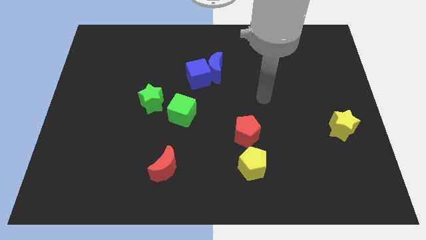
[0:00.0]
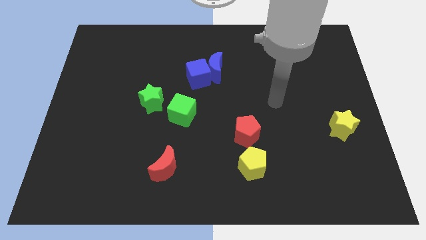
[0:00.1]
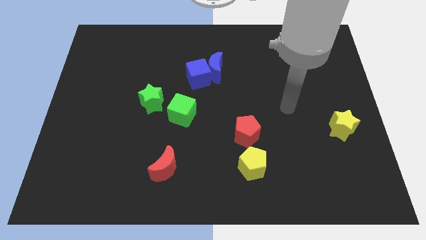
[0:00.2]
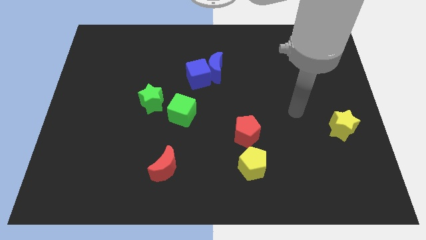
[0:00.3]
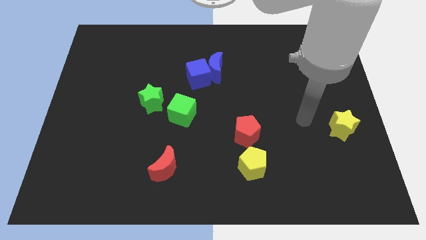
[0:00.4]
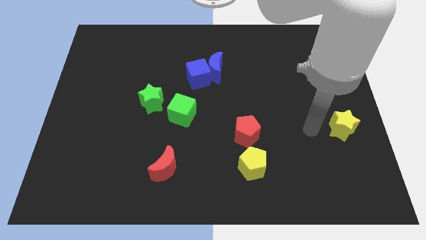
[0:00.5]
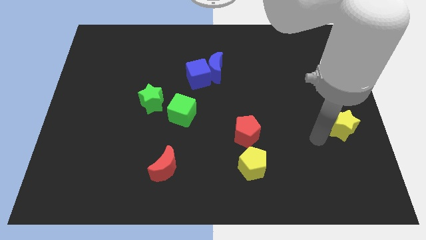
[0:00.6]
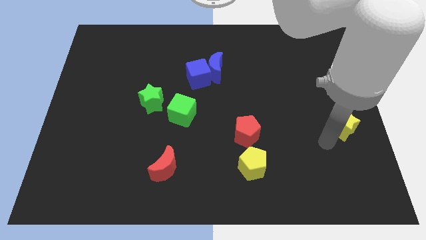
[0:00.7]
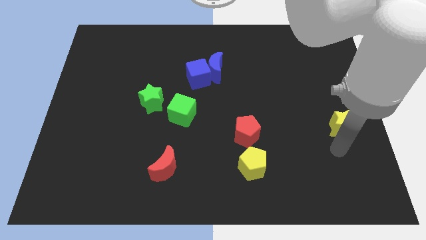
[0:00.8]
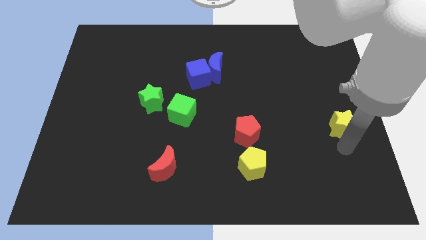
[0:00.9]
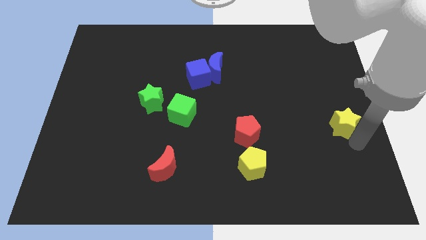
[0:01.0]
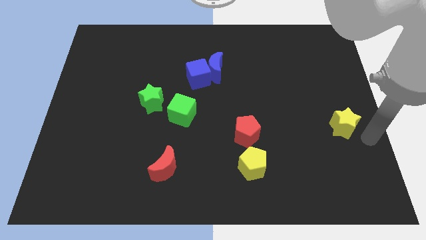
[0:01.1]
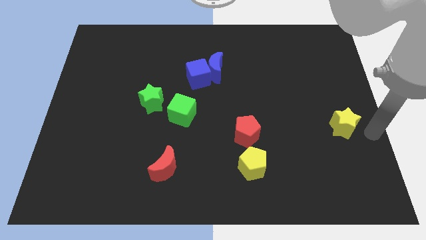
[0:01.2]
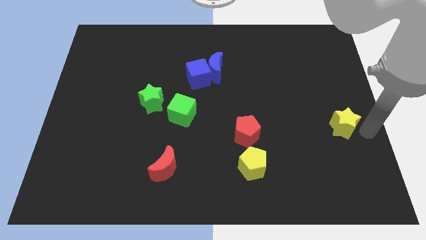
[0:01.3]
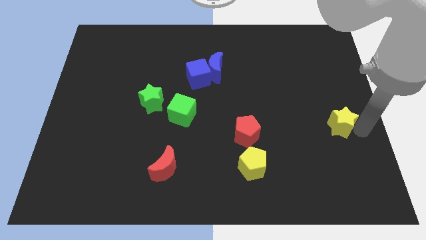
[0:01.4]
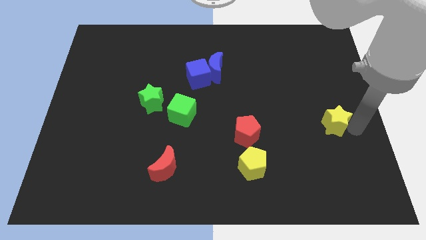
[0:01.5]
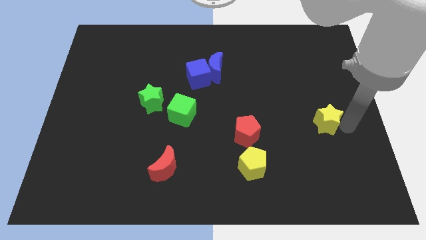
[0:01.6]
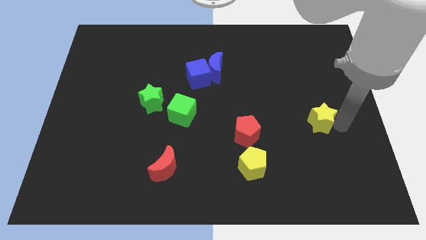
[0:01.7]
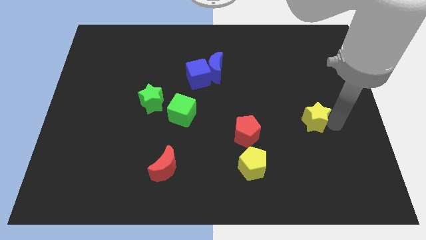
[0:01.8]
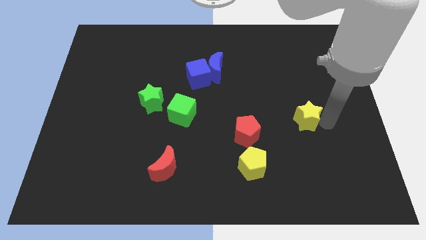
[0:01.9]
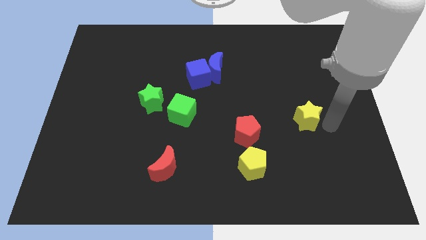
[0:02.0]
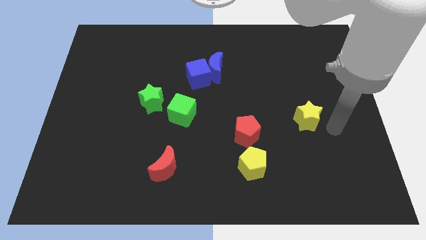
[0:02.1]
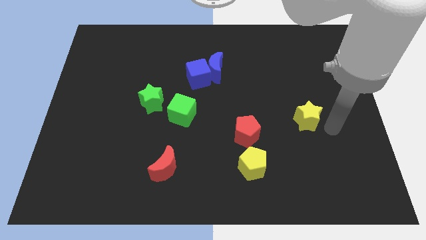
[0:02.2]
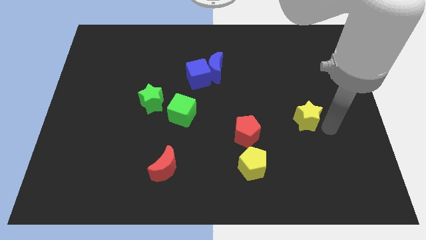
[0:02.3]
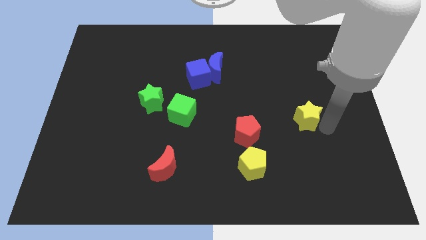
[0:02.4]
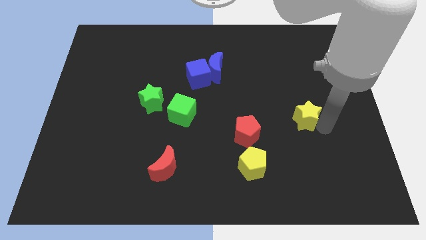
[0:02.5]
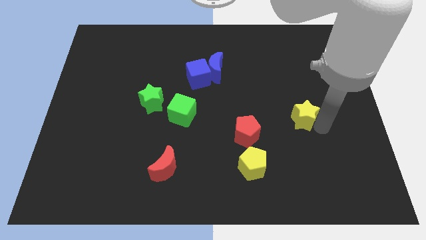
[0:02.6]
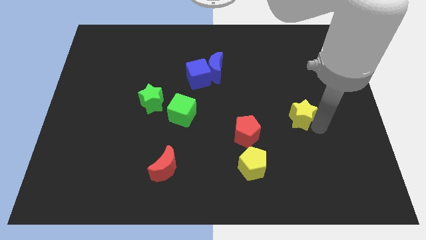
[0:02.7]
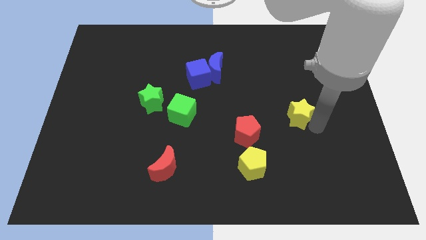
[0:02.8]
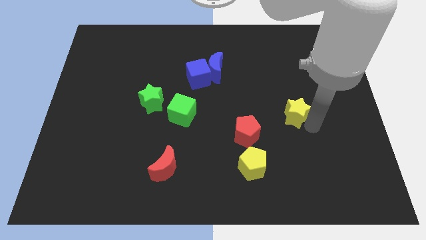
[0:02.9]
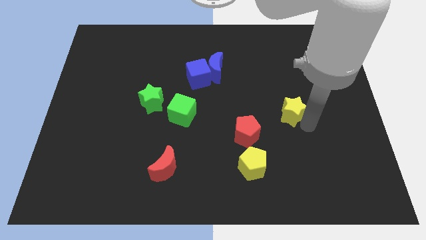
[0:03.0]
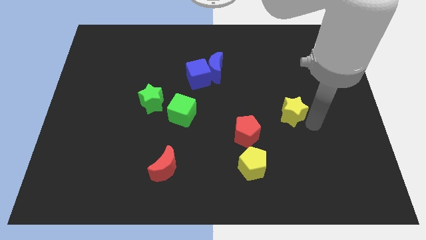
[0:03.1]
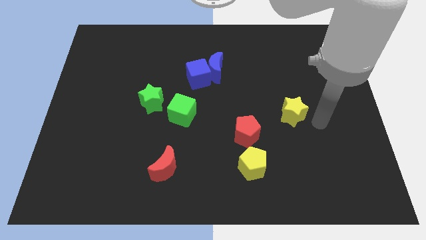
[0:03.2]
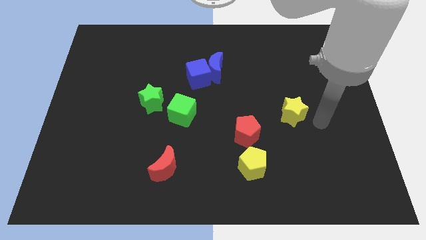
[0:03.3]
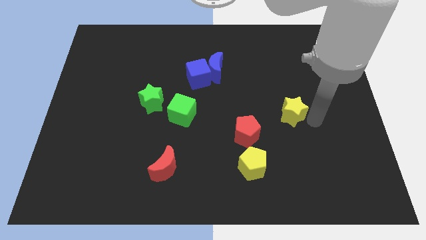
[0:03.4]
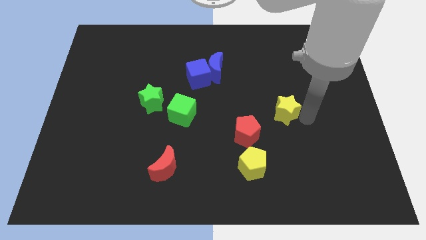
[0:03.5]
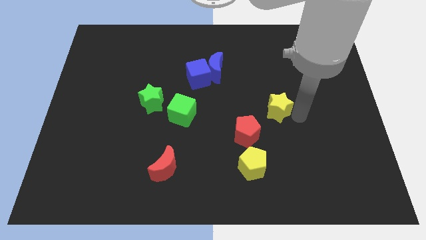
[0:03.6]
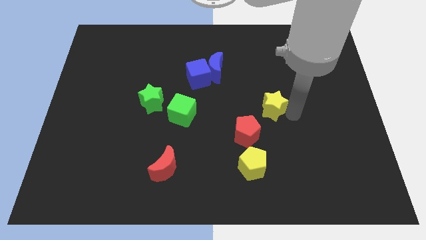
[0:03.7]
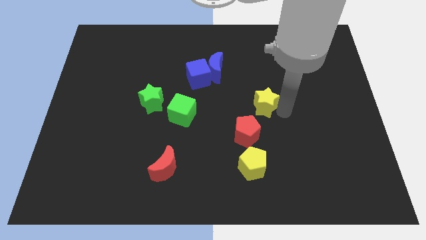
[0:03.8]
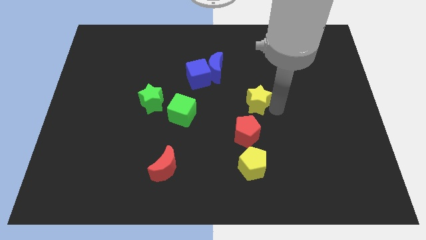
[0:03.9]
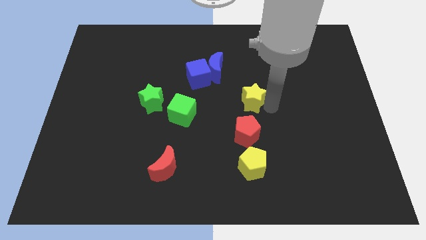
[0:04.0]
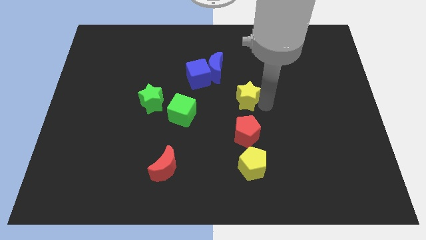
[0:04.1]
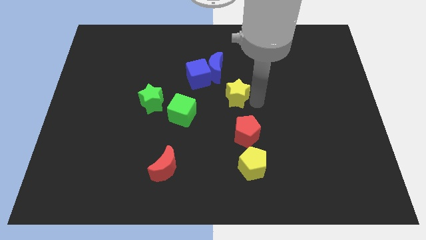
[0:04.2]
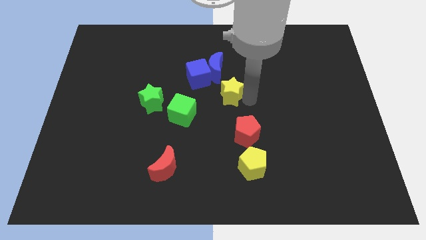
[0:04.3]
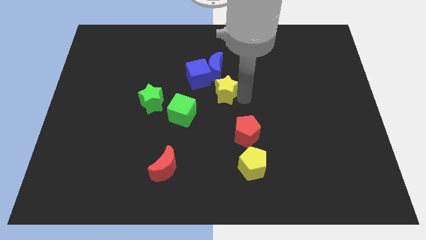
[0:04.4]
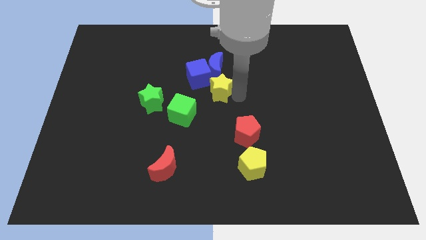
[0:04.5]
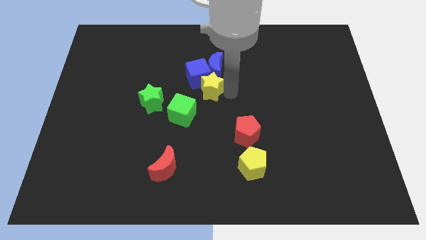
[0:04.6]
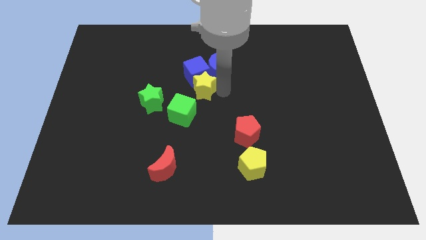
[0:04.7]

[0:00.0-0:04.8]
put the yellow star to the top side of the green cube

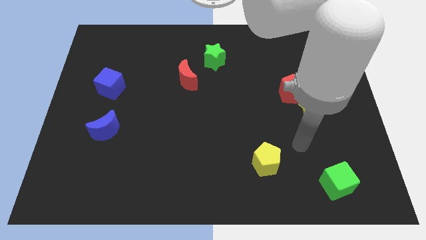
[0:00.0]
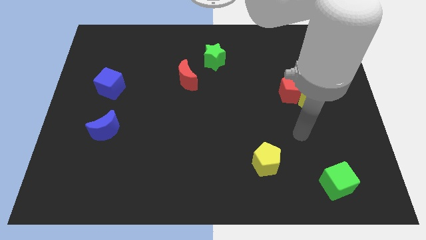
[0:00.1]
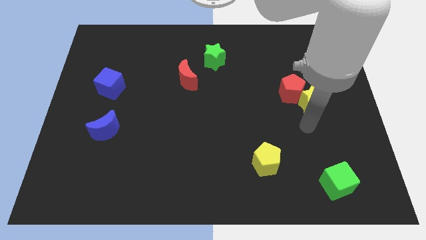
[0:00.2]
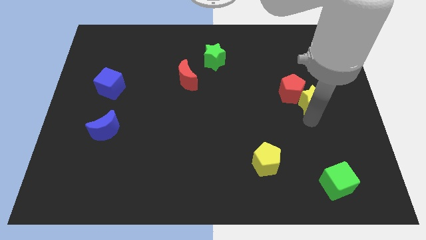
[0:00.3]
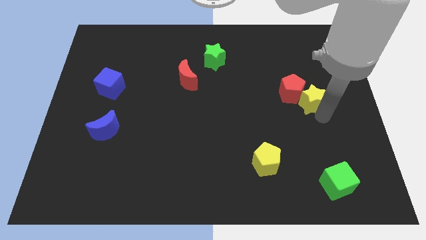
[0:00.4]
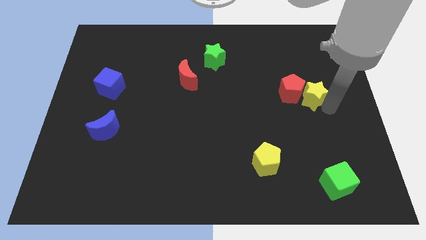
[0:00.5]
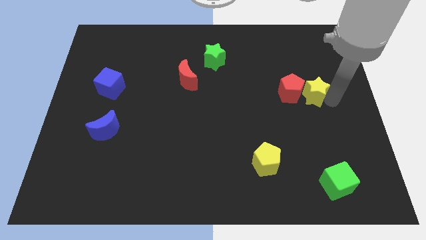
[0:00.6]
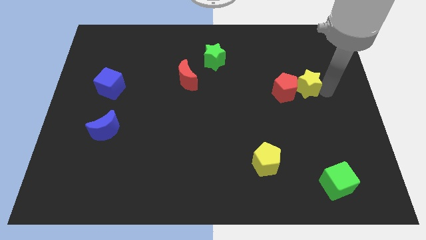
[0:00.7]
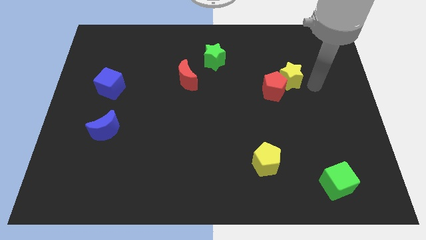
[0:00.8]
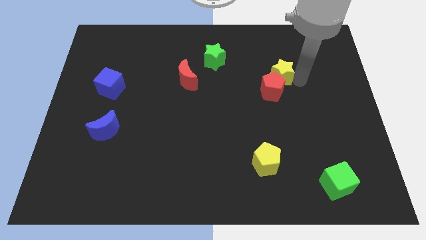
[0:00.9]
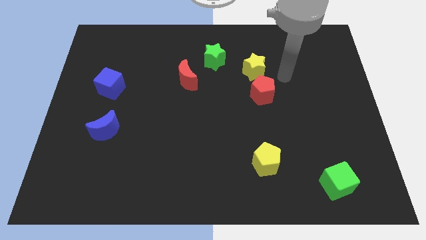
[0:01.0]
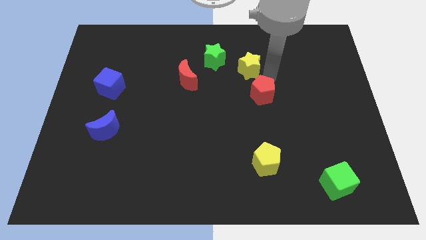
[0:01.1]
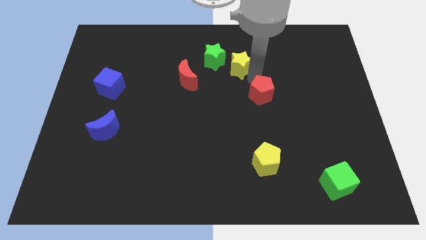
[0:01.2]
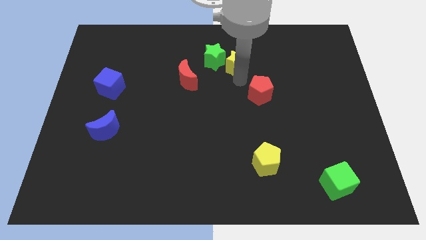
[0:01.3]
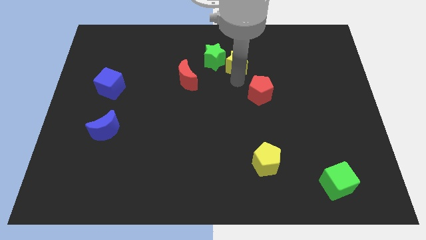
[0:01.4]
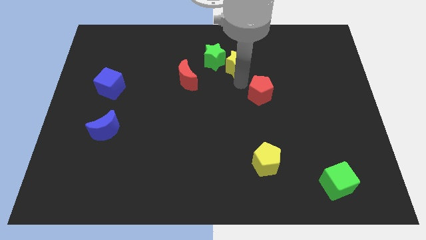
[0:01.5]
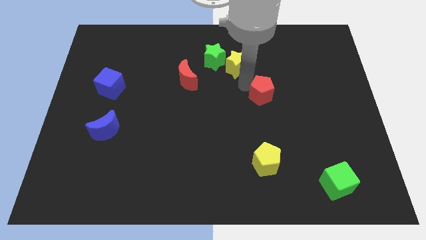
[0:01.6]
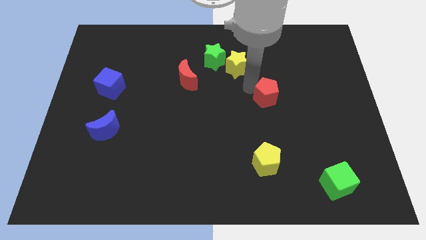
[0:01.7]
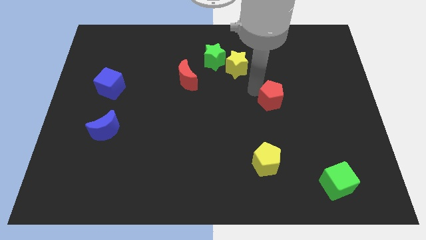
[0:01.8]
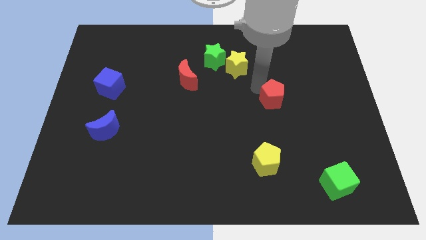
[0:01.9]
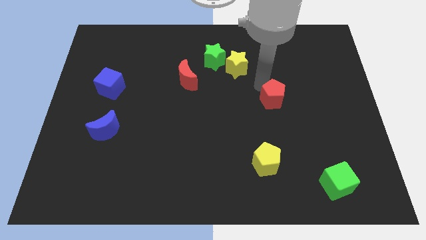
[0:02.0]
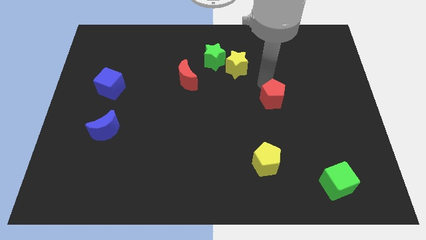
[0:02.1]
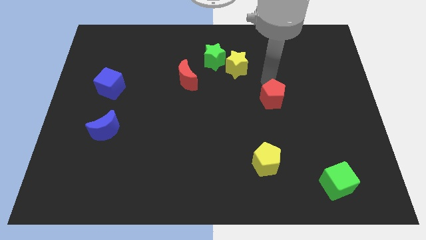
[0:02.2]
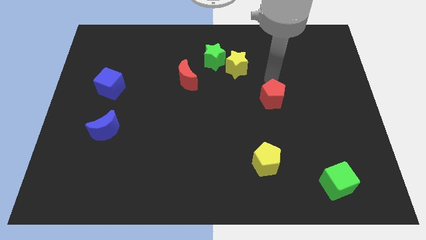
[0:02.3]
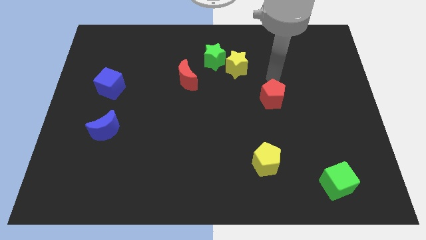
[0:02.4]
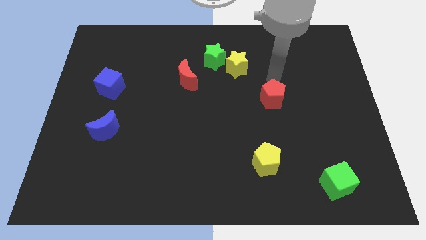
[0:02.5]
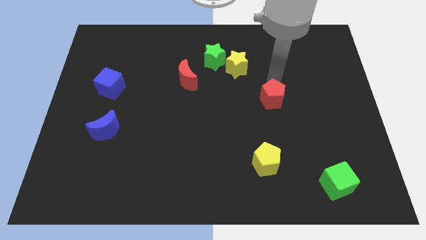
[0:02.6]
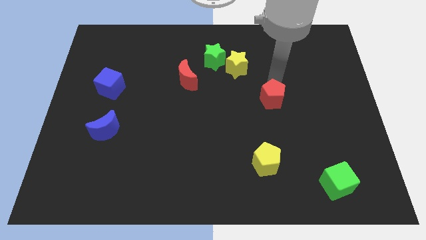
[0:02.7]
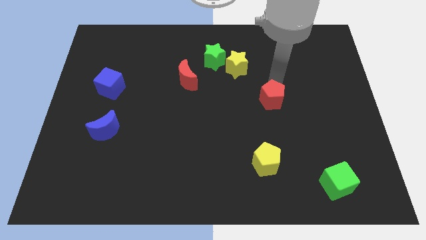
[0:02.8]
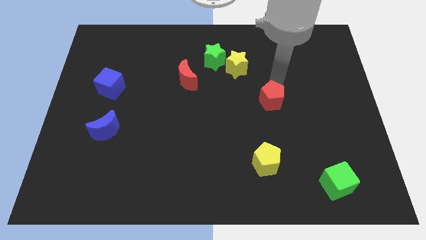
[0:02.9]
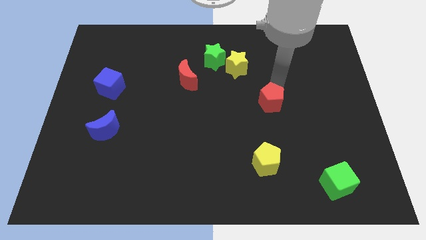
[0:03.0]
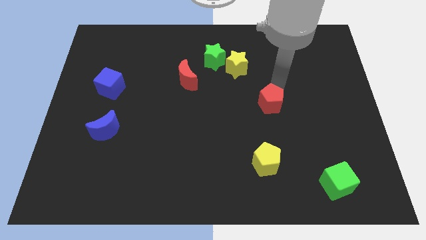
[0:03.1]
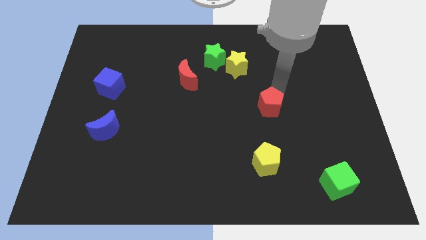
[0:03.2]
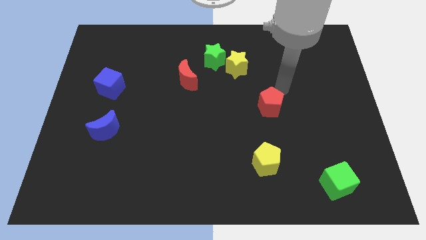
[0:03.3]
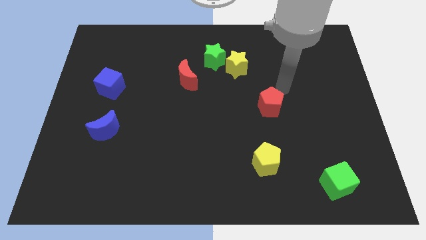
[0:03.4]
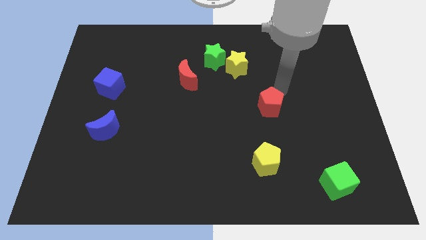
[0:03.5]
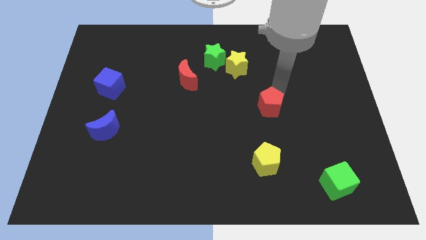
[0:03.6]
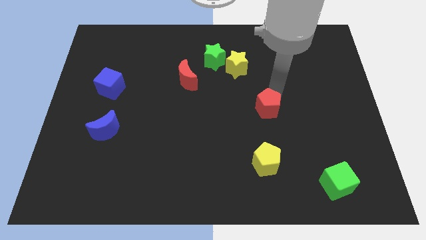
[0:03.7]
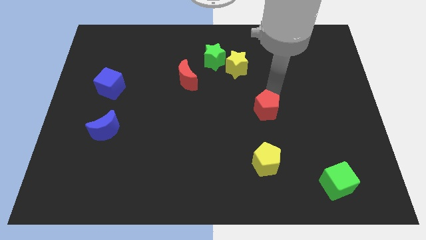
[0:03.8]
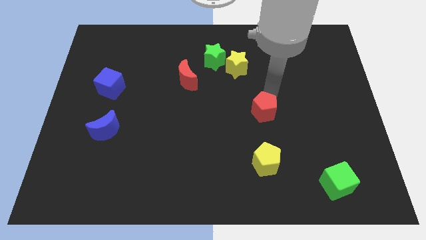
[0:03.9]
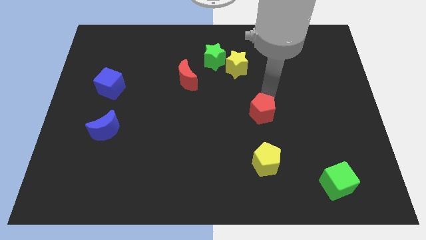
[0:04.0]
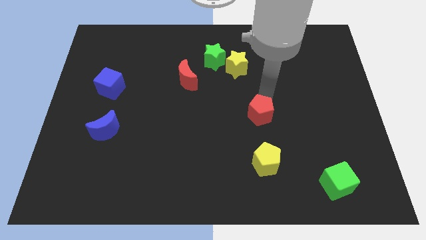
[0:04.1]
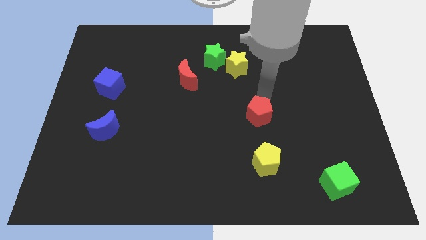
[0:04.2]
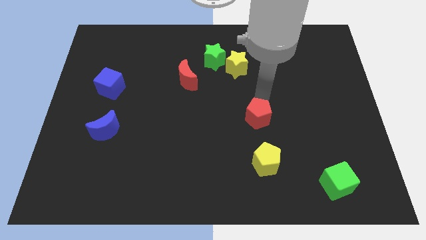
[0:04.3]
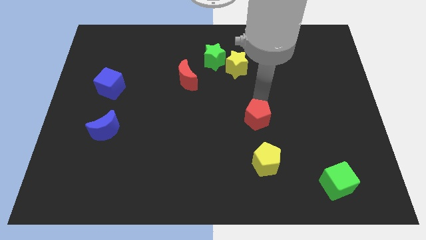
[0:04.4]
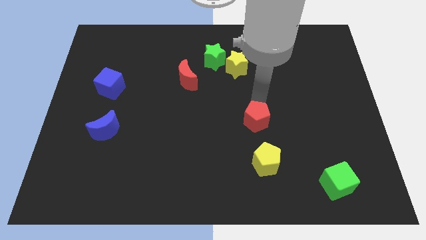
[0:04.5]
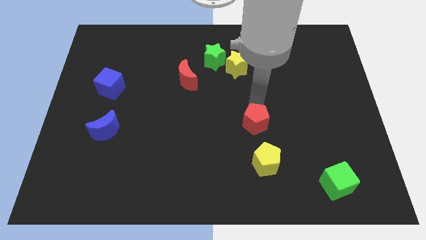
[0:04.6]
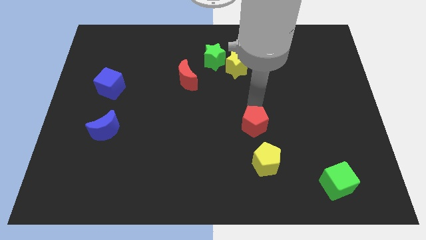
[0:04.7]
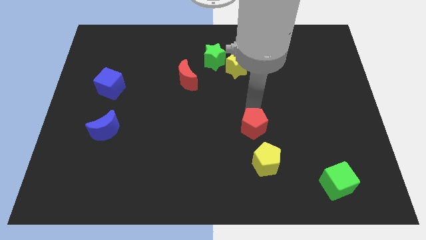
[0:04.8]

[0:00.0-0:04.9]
push the red pentagon to the top left side of the yellow pentagon
